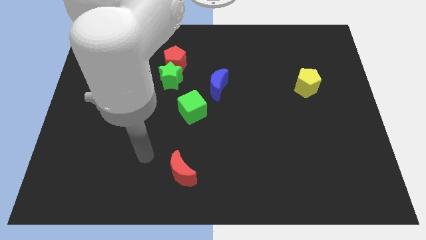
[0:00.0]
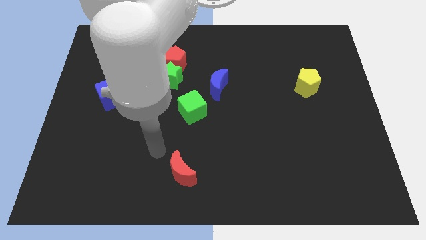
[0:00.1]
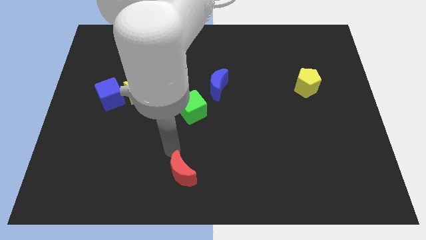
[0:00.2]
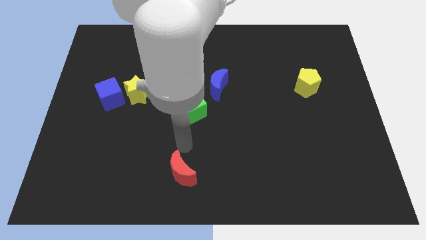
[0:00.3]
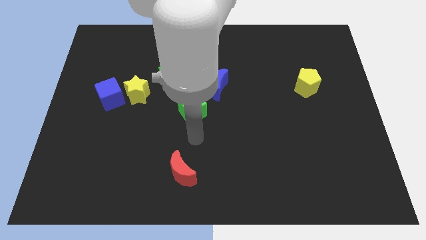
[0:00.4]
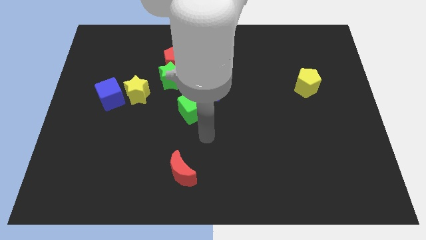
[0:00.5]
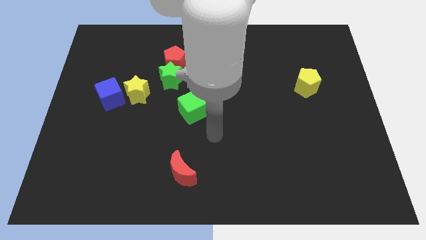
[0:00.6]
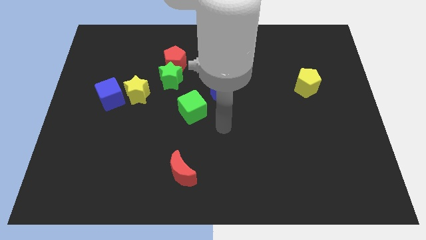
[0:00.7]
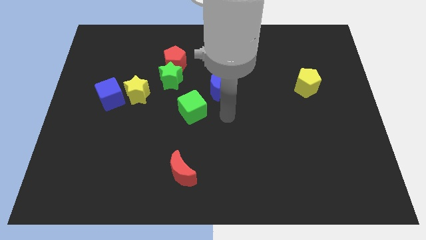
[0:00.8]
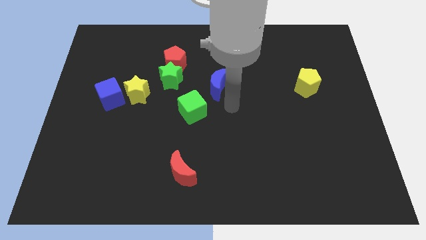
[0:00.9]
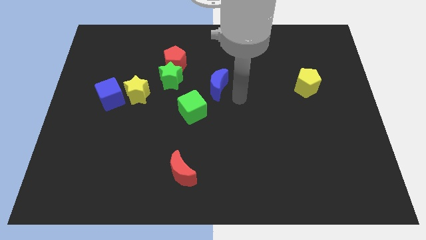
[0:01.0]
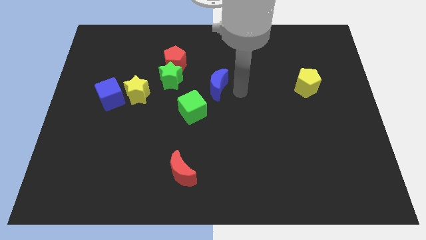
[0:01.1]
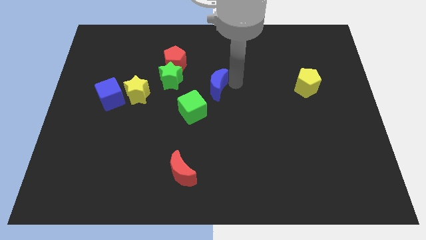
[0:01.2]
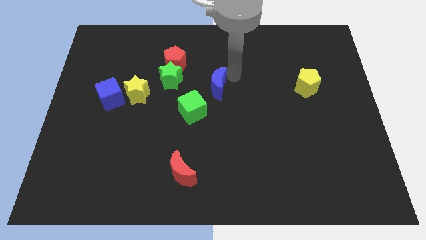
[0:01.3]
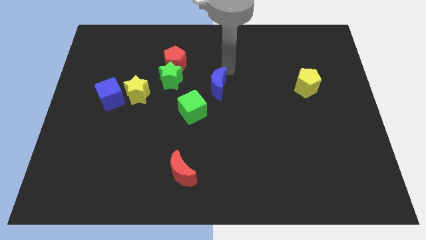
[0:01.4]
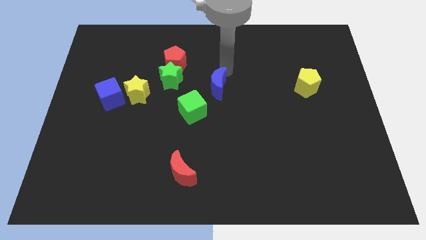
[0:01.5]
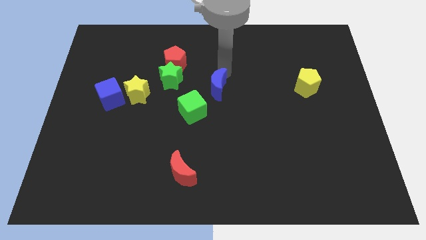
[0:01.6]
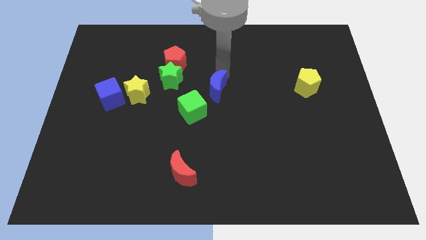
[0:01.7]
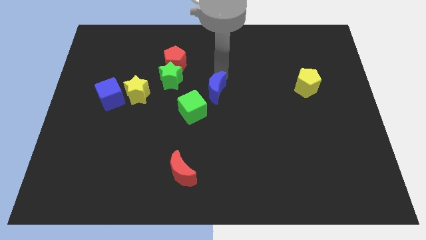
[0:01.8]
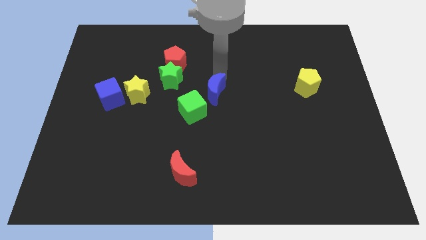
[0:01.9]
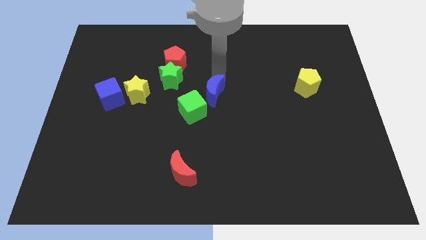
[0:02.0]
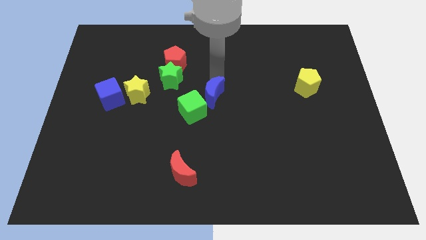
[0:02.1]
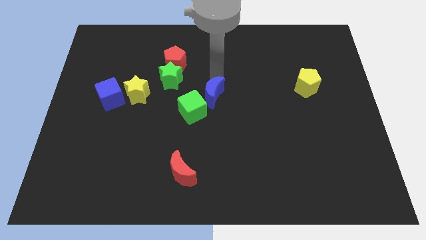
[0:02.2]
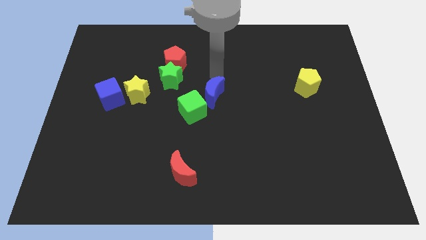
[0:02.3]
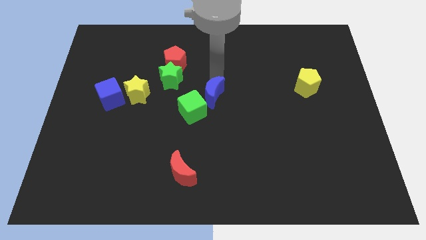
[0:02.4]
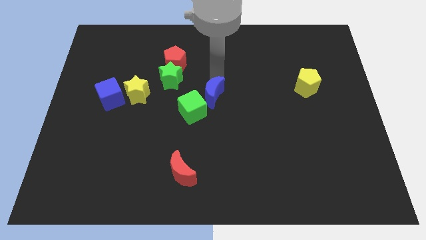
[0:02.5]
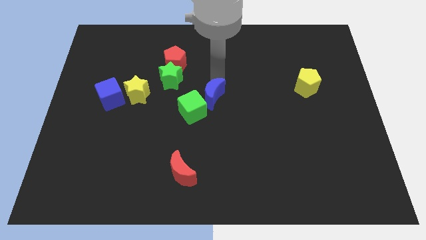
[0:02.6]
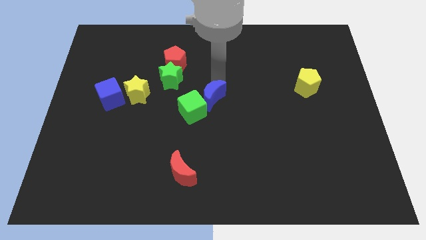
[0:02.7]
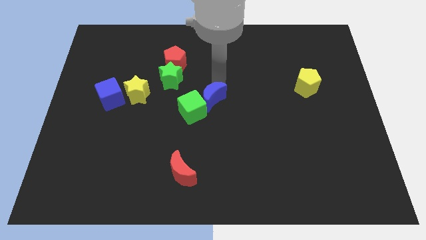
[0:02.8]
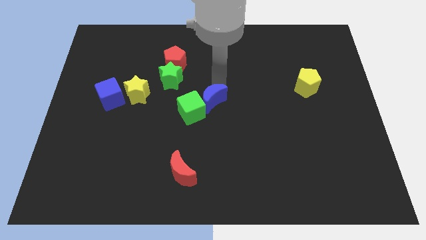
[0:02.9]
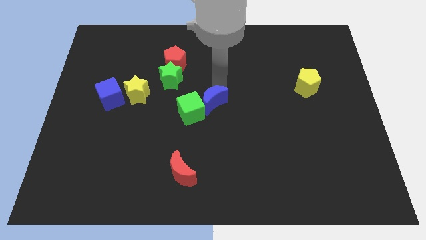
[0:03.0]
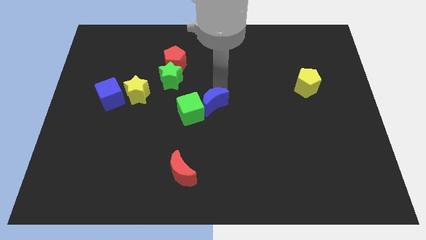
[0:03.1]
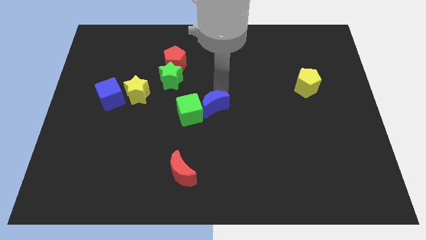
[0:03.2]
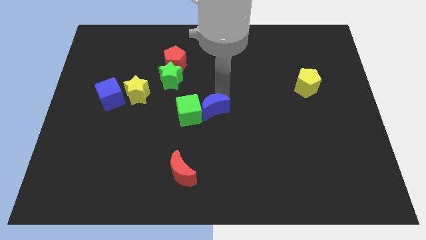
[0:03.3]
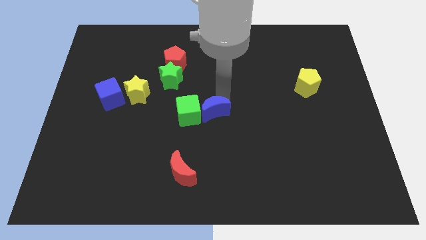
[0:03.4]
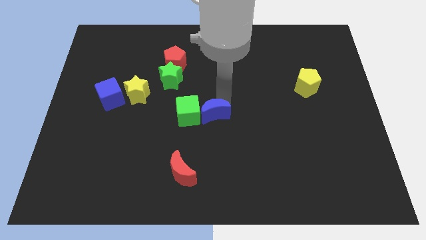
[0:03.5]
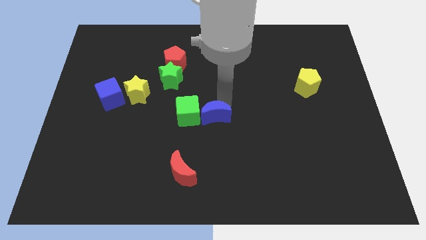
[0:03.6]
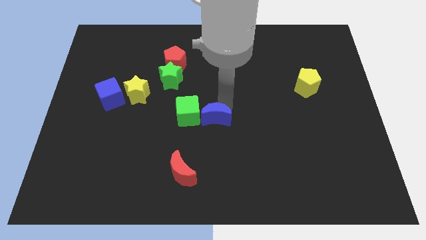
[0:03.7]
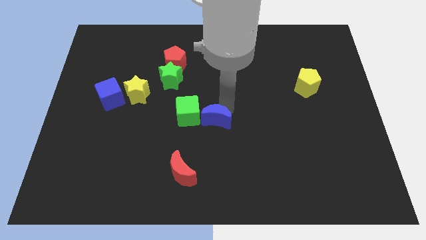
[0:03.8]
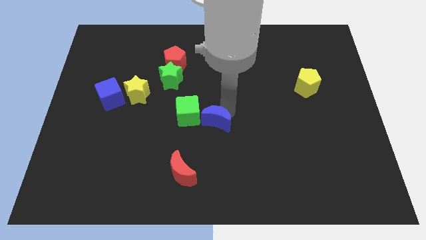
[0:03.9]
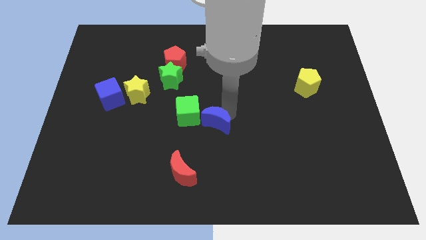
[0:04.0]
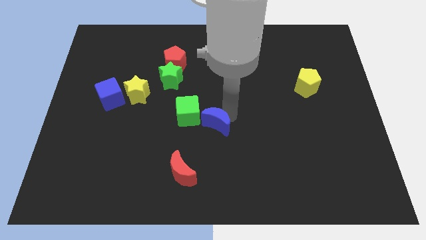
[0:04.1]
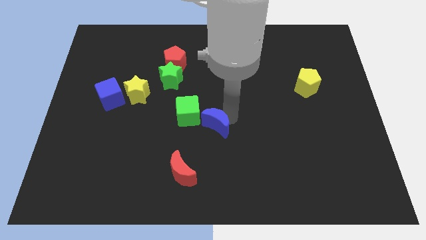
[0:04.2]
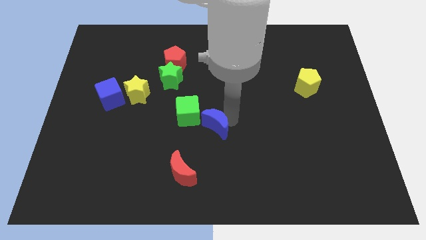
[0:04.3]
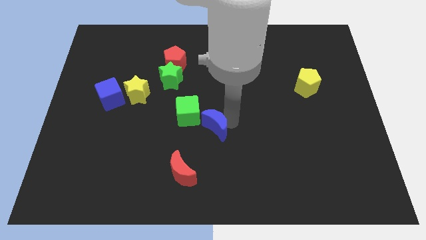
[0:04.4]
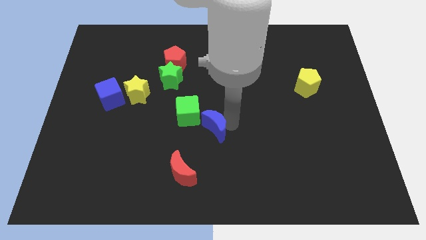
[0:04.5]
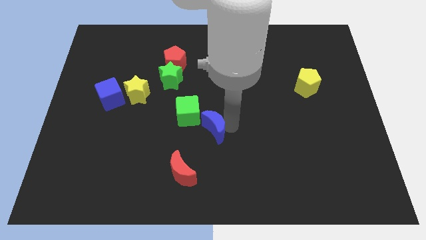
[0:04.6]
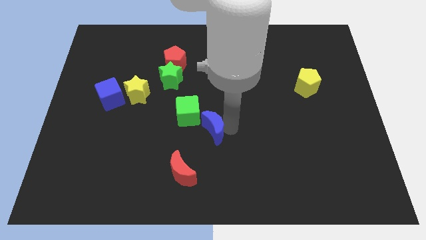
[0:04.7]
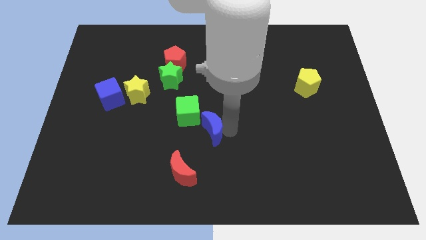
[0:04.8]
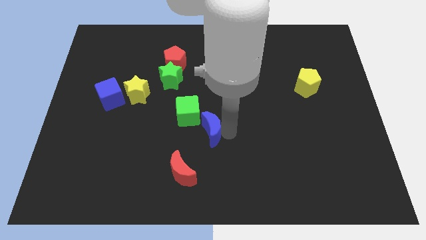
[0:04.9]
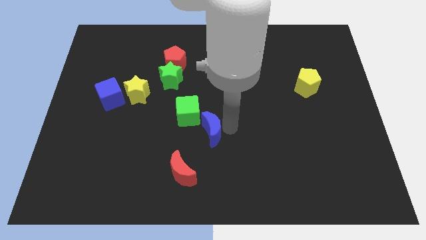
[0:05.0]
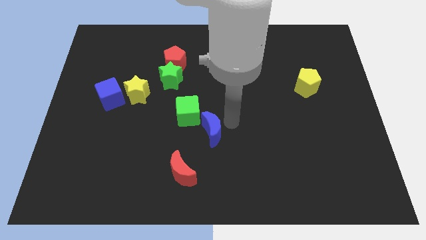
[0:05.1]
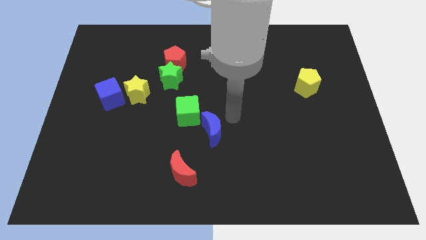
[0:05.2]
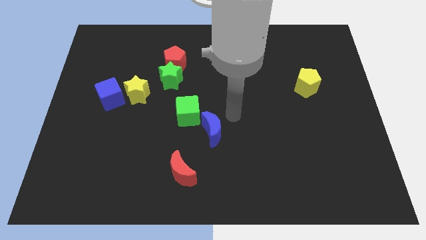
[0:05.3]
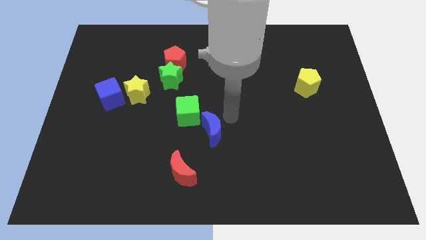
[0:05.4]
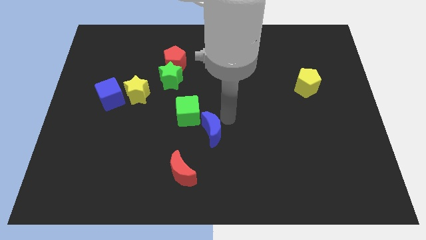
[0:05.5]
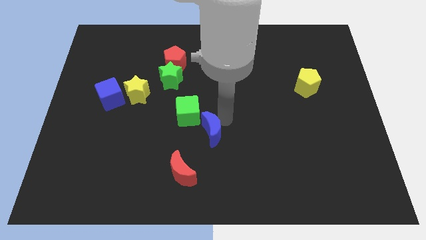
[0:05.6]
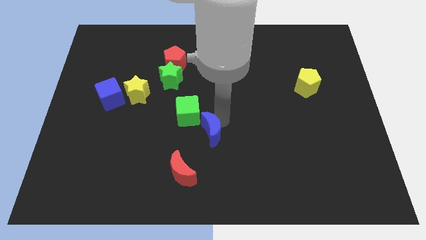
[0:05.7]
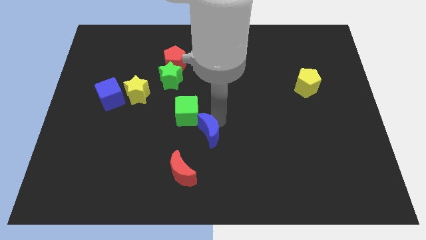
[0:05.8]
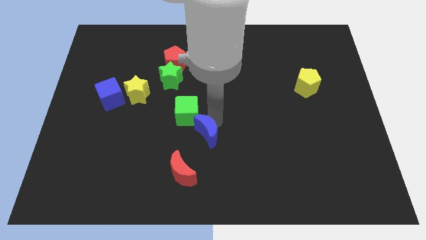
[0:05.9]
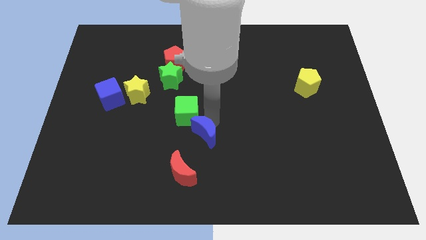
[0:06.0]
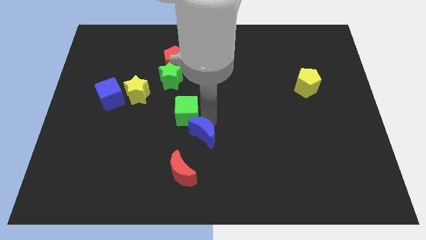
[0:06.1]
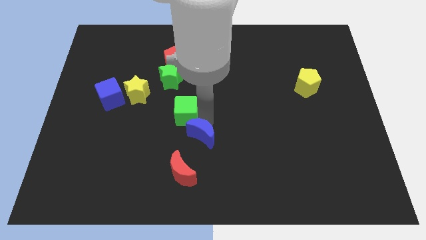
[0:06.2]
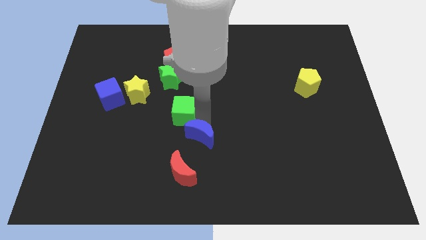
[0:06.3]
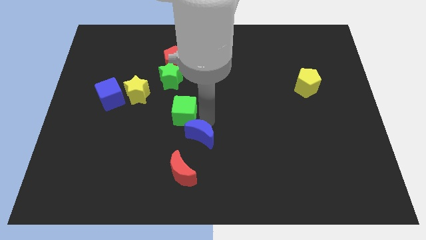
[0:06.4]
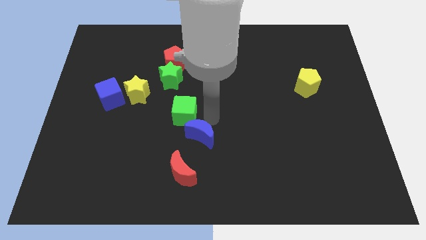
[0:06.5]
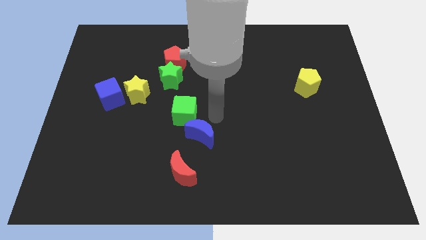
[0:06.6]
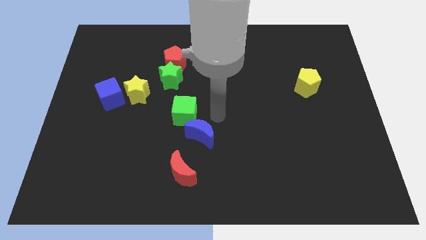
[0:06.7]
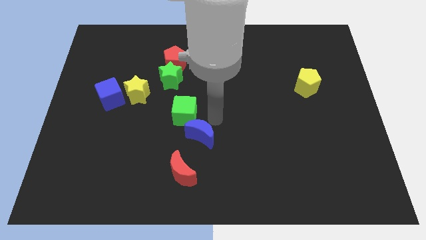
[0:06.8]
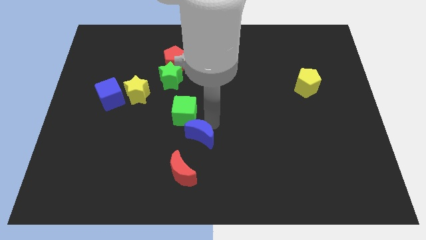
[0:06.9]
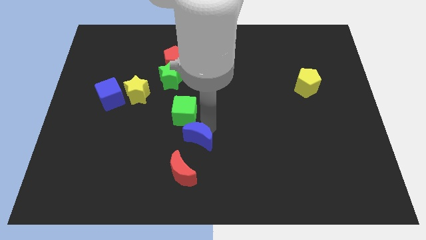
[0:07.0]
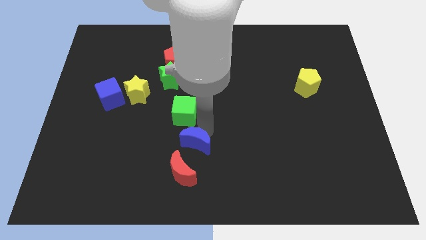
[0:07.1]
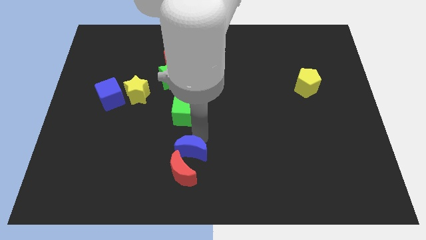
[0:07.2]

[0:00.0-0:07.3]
put the blue moon next to the red moon
